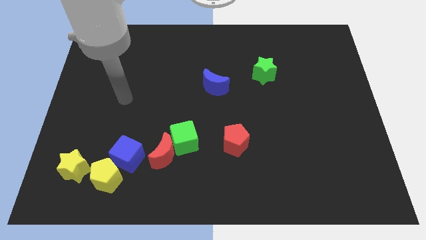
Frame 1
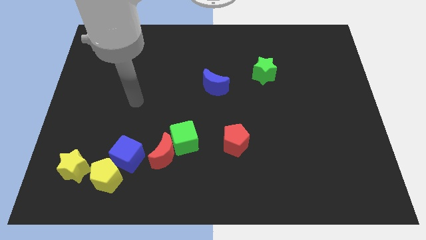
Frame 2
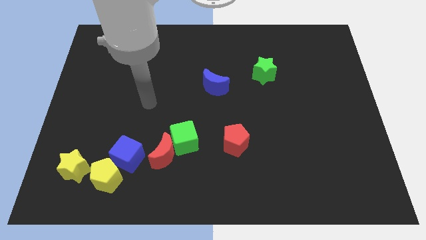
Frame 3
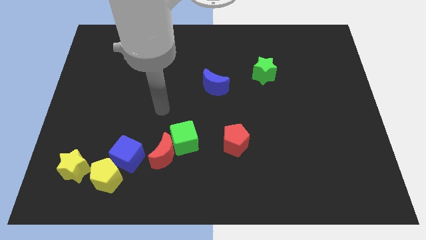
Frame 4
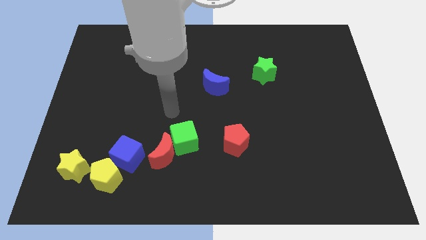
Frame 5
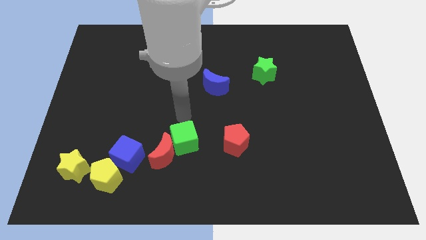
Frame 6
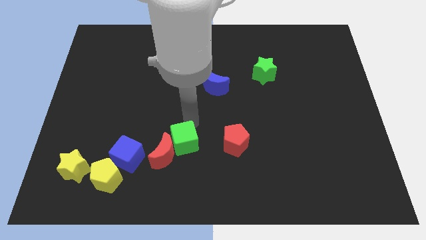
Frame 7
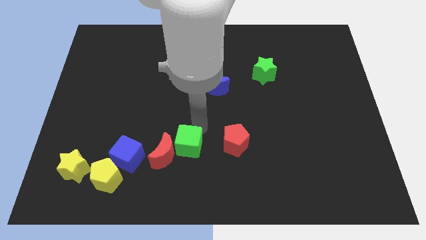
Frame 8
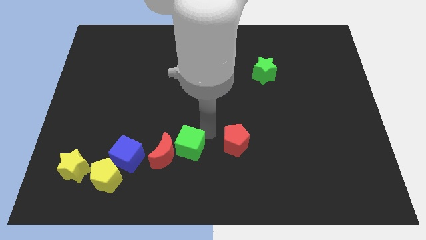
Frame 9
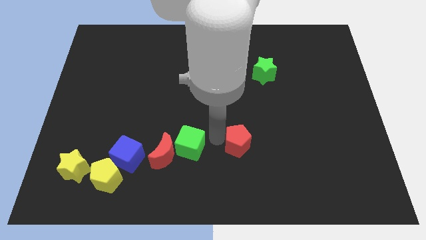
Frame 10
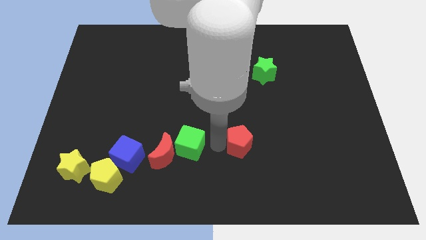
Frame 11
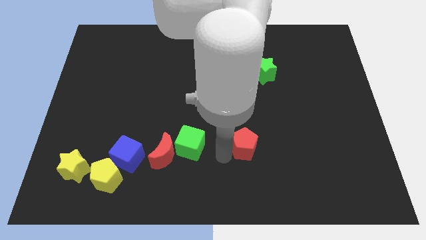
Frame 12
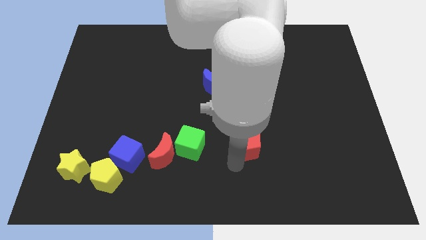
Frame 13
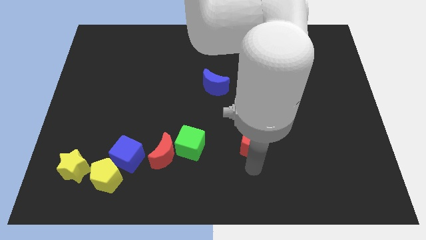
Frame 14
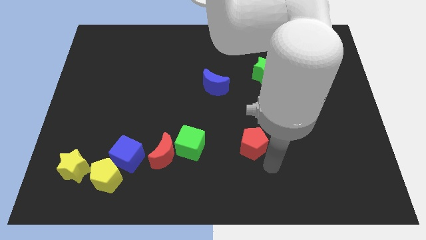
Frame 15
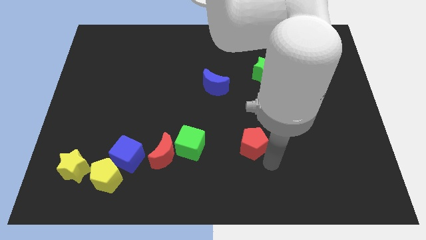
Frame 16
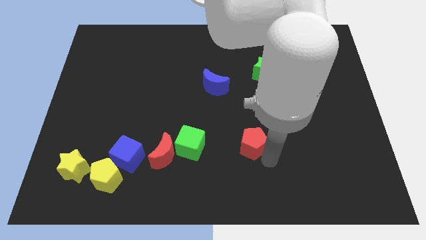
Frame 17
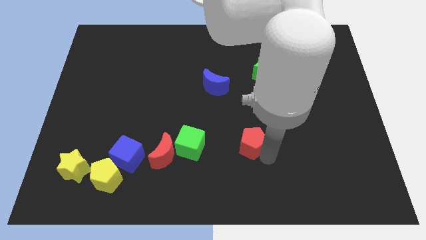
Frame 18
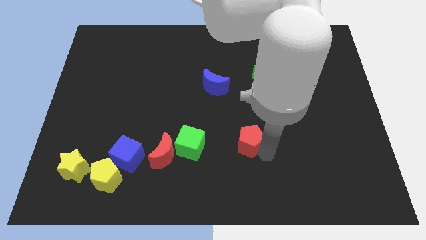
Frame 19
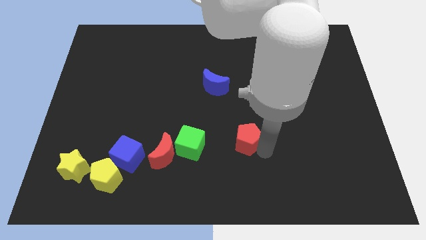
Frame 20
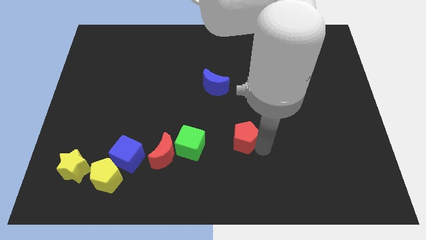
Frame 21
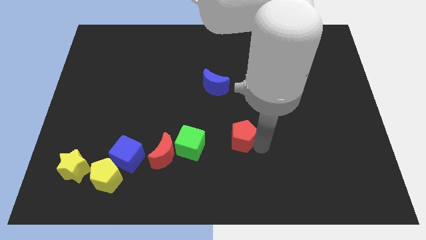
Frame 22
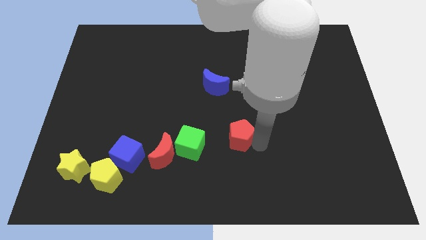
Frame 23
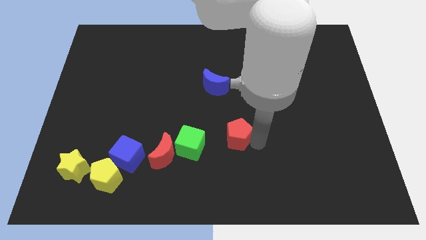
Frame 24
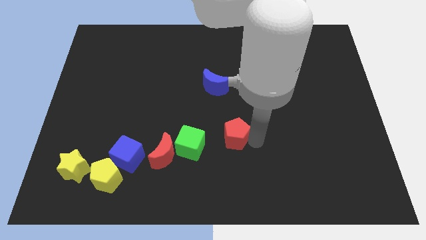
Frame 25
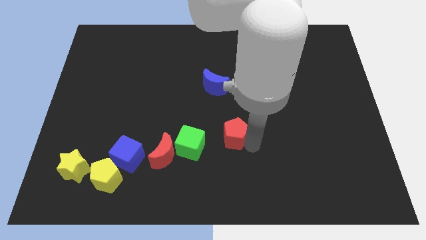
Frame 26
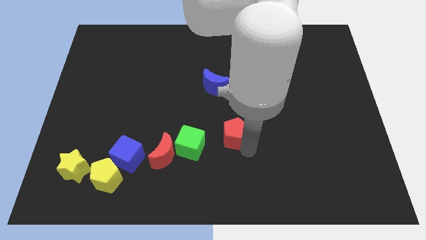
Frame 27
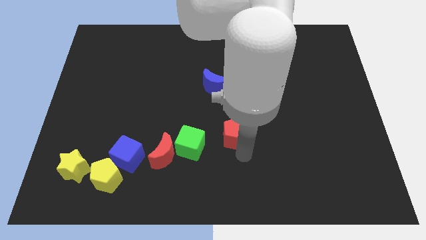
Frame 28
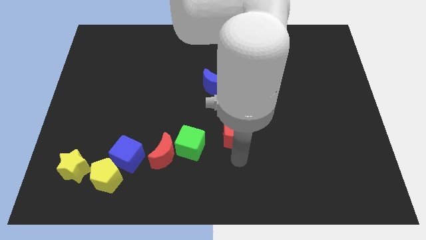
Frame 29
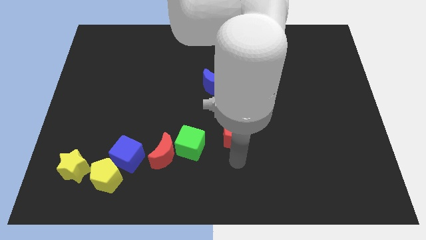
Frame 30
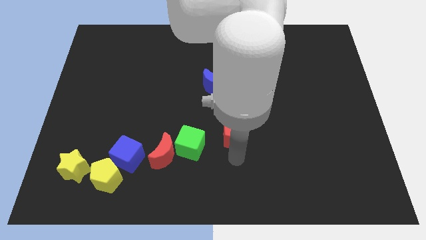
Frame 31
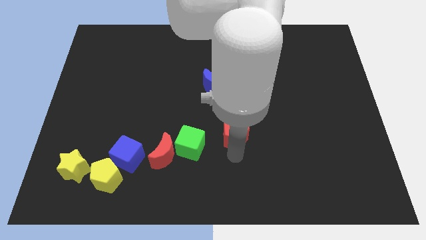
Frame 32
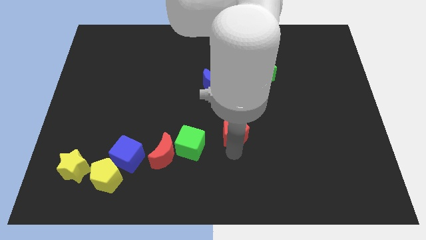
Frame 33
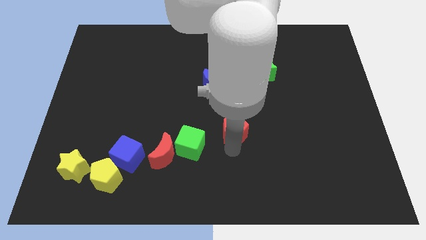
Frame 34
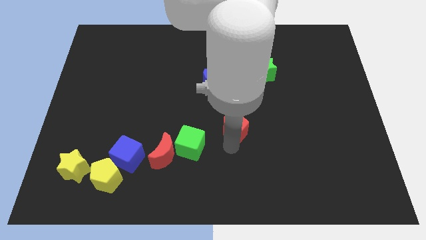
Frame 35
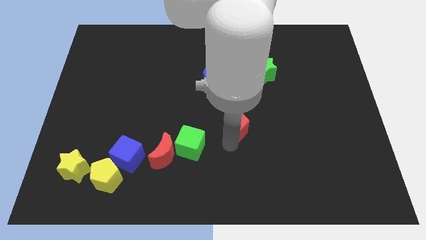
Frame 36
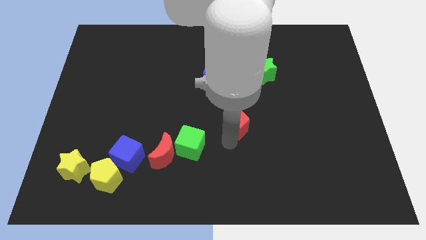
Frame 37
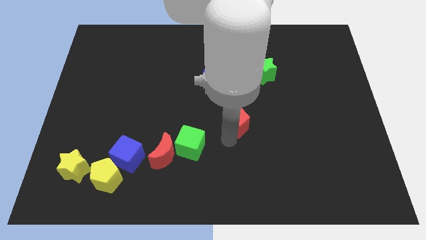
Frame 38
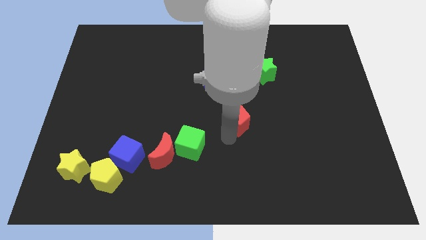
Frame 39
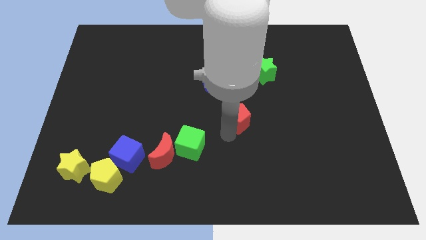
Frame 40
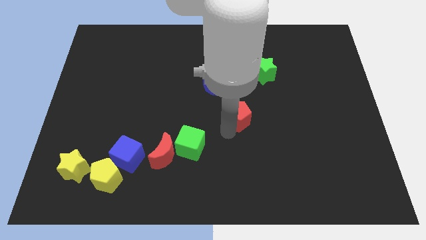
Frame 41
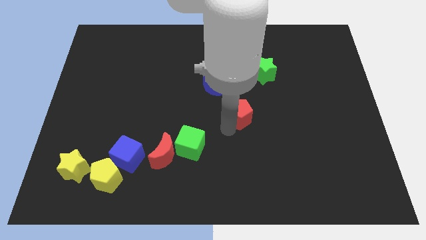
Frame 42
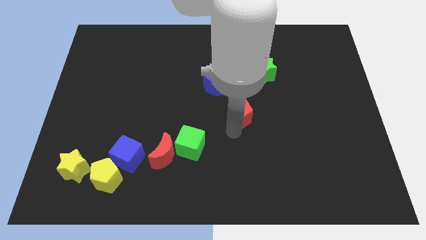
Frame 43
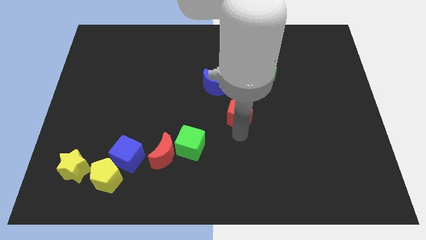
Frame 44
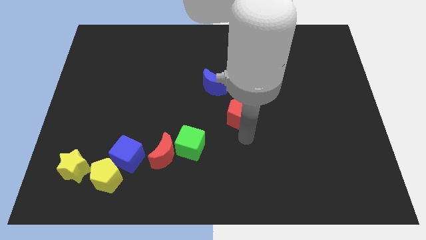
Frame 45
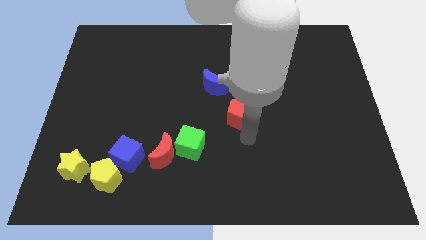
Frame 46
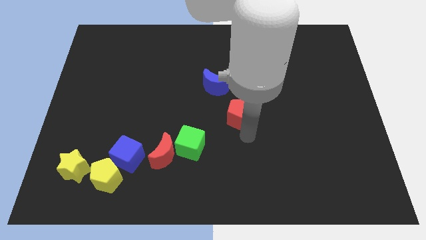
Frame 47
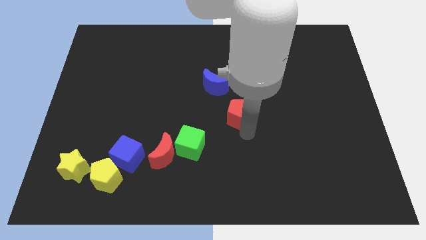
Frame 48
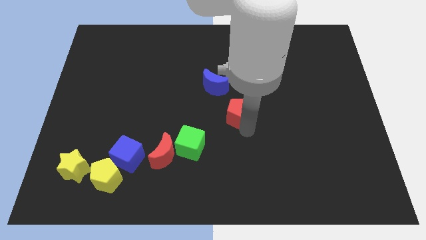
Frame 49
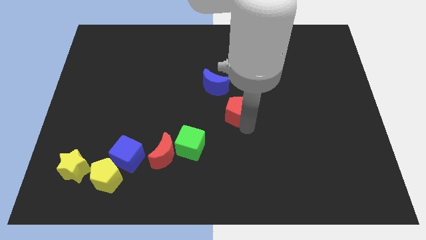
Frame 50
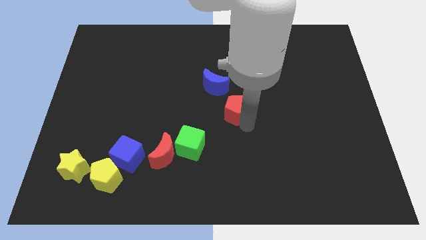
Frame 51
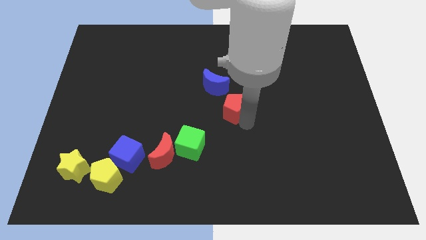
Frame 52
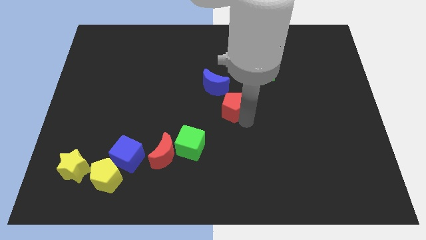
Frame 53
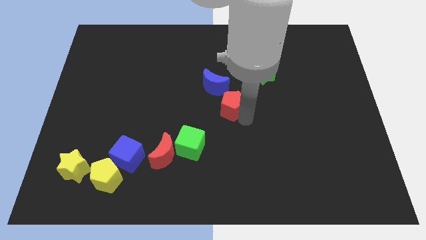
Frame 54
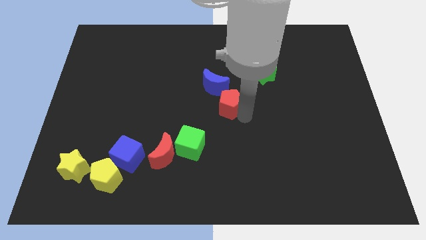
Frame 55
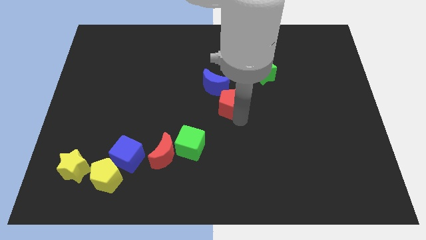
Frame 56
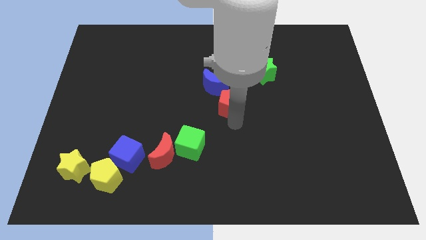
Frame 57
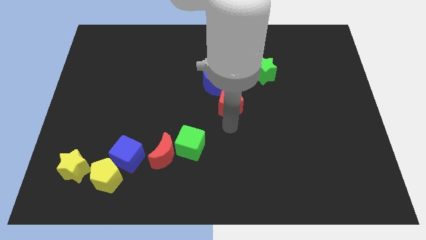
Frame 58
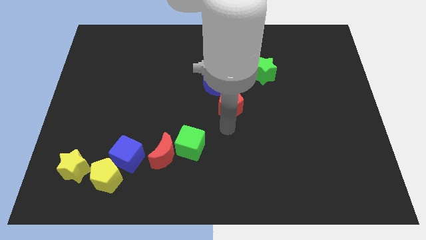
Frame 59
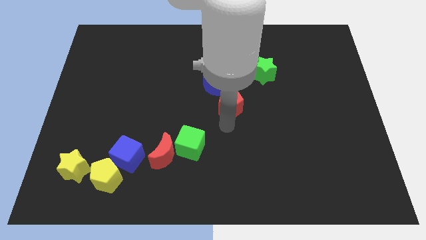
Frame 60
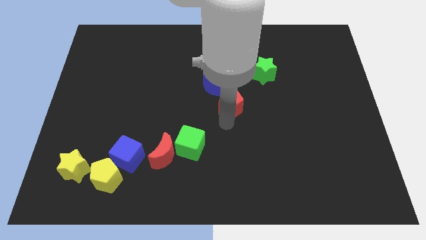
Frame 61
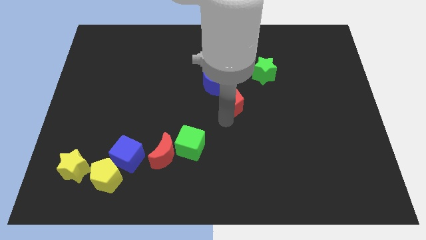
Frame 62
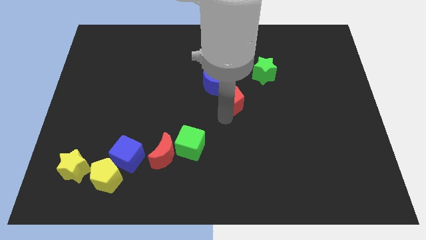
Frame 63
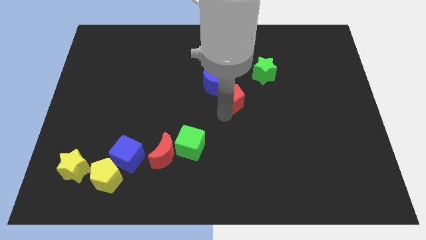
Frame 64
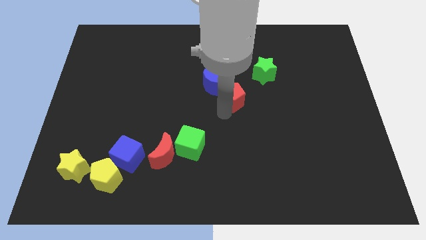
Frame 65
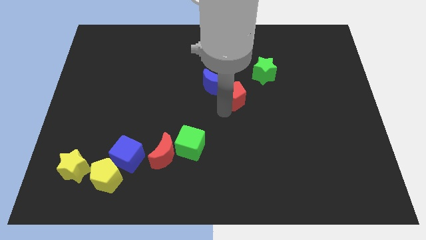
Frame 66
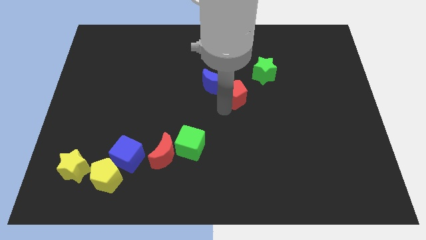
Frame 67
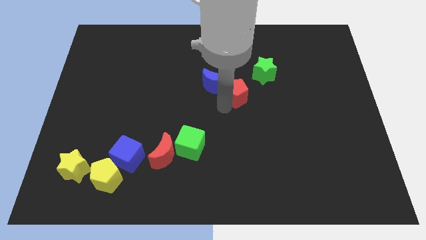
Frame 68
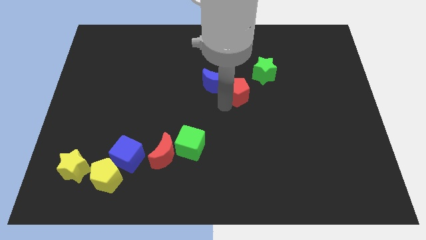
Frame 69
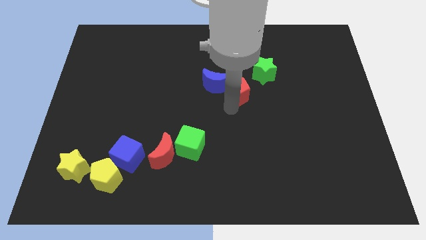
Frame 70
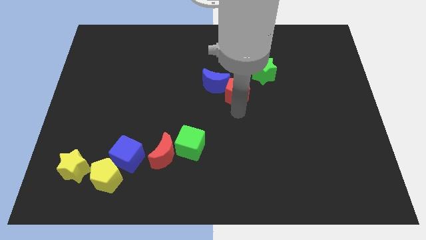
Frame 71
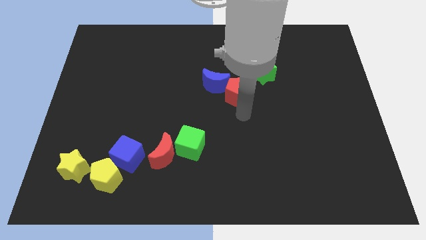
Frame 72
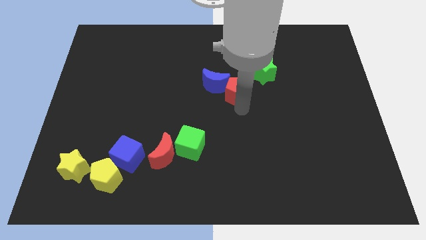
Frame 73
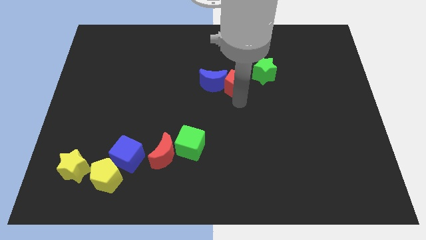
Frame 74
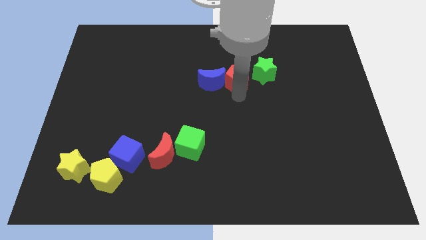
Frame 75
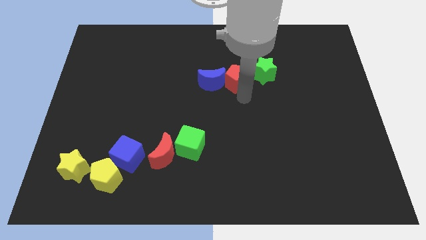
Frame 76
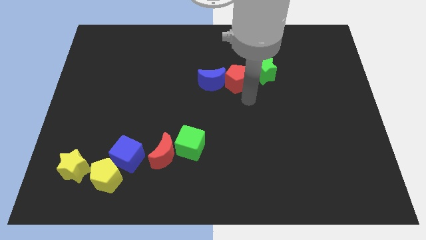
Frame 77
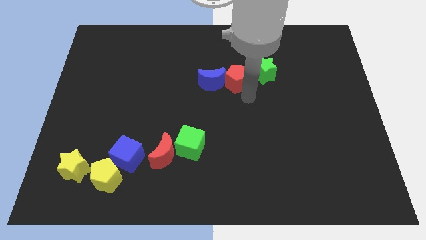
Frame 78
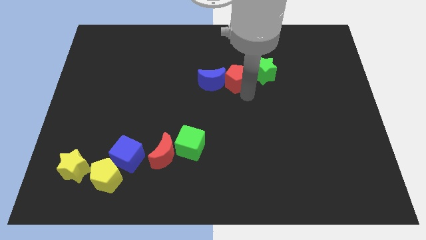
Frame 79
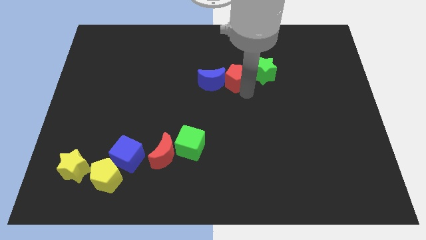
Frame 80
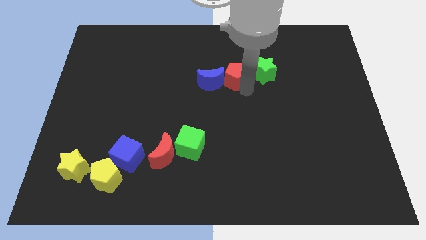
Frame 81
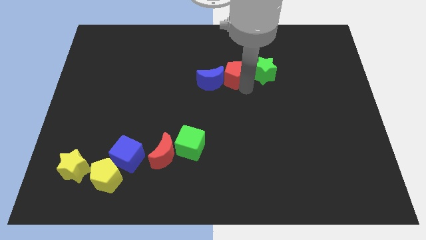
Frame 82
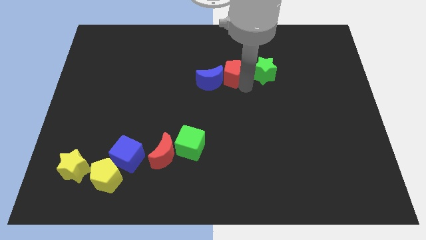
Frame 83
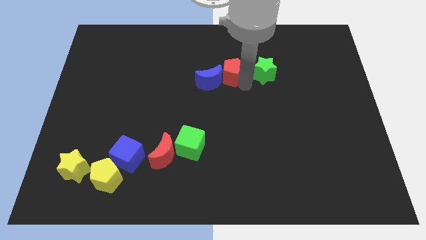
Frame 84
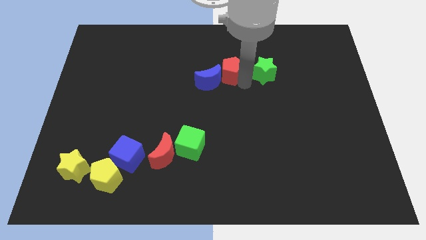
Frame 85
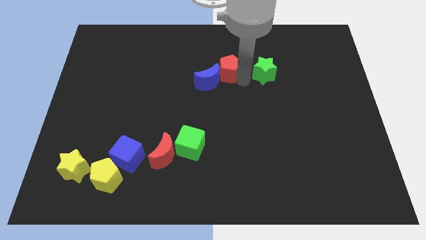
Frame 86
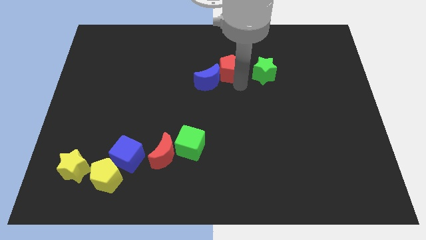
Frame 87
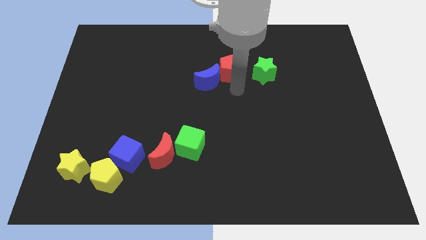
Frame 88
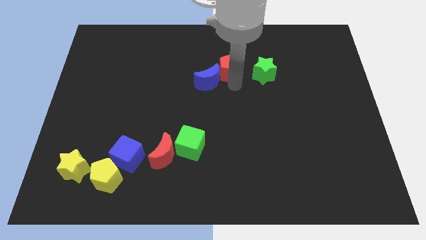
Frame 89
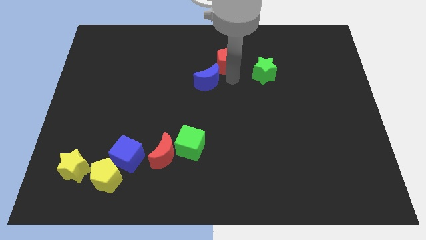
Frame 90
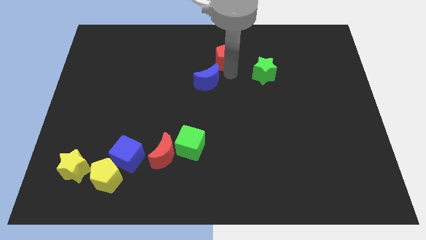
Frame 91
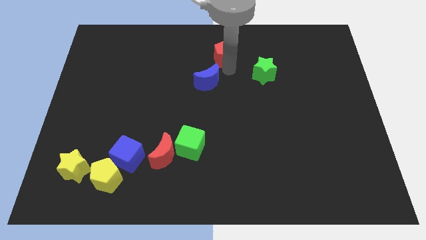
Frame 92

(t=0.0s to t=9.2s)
move the red pentagon to the towards your base
